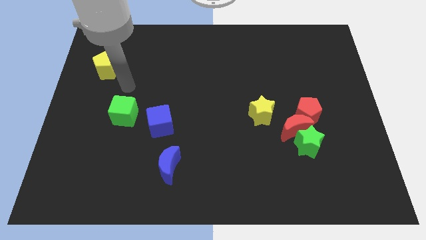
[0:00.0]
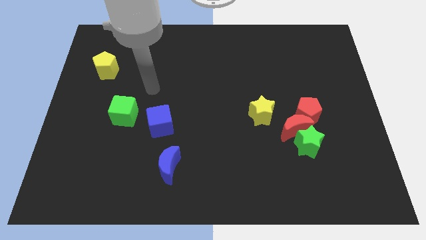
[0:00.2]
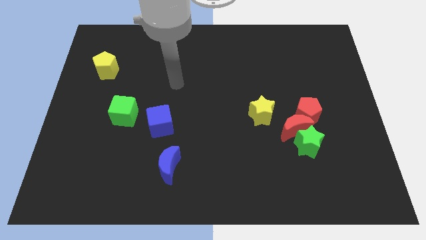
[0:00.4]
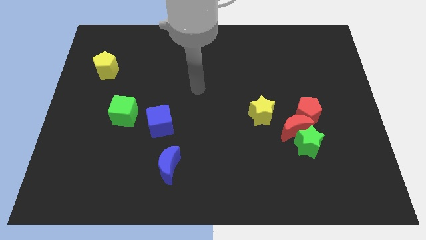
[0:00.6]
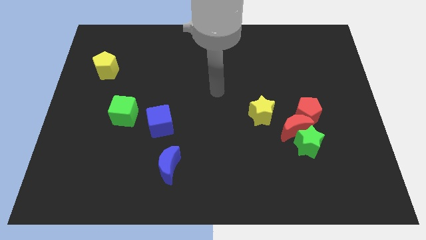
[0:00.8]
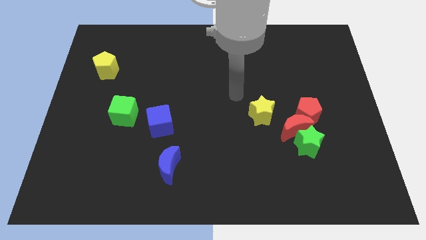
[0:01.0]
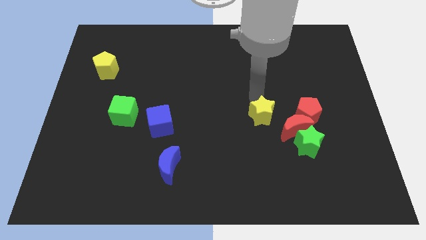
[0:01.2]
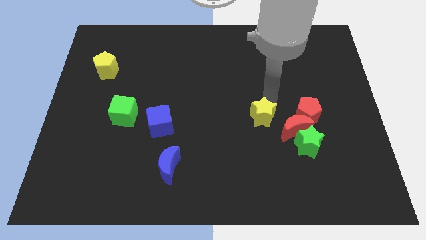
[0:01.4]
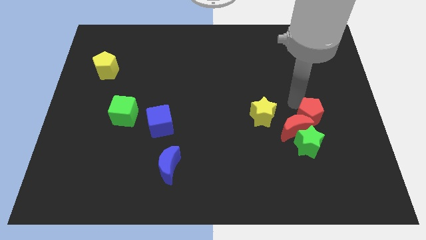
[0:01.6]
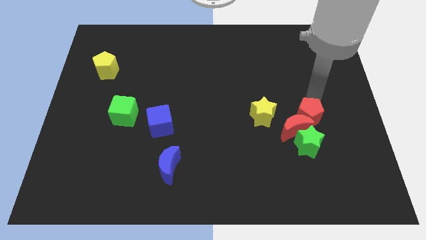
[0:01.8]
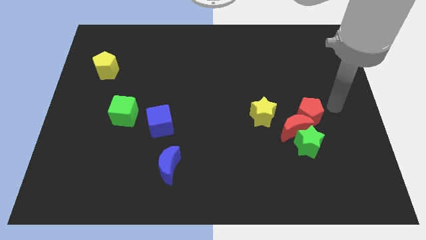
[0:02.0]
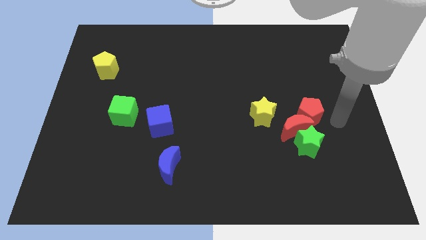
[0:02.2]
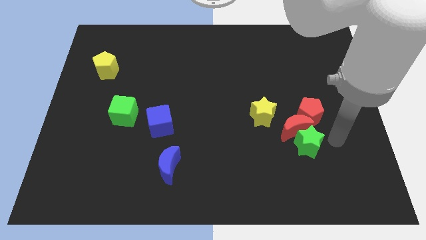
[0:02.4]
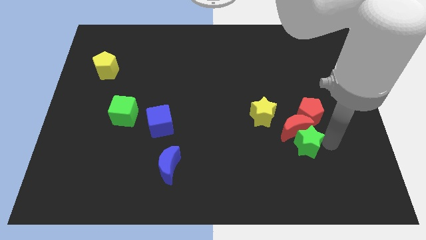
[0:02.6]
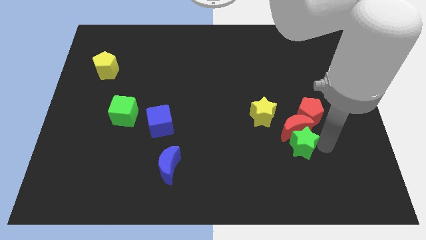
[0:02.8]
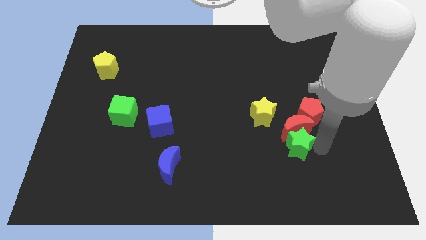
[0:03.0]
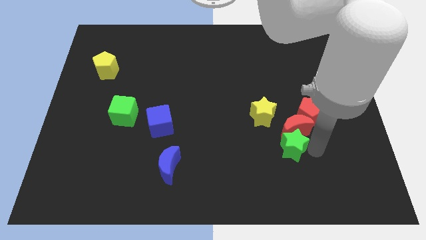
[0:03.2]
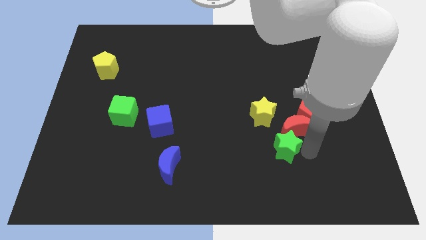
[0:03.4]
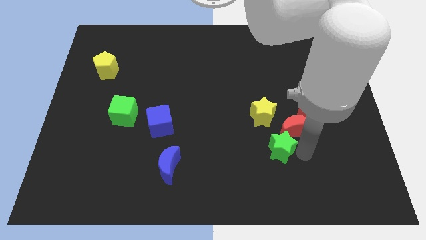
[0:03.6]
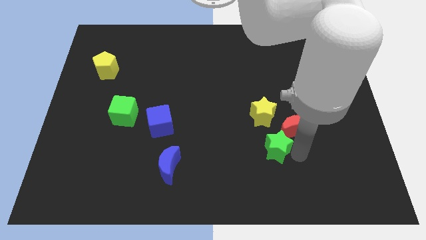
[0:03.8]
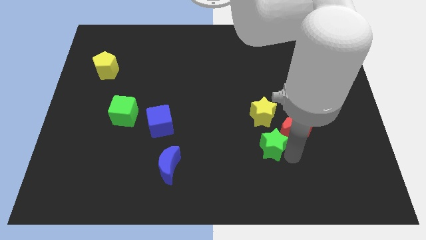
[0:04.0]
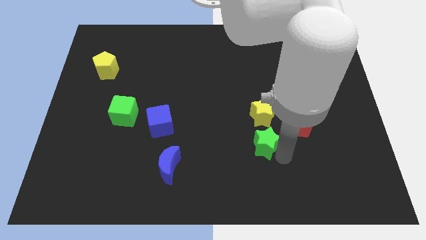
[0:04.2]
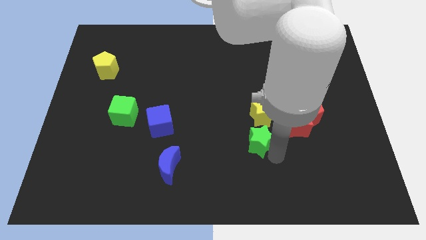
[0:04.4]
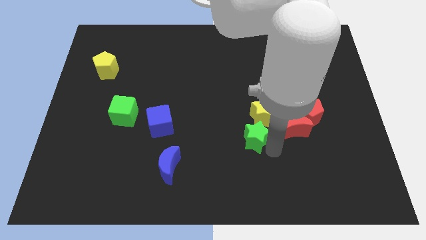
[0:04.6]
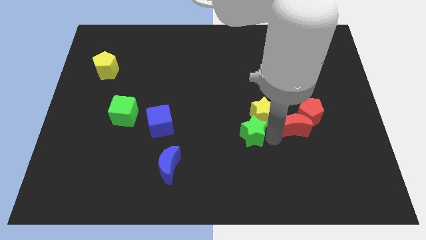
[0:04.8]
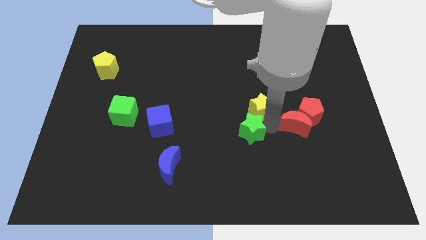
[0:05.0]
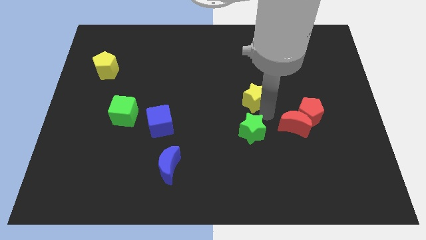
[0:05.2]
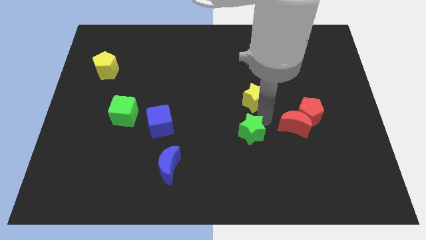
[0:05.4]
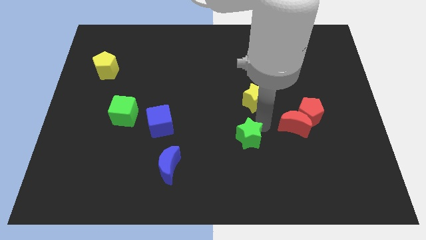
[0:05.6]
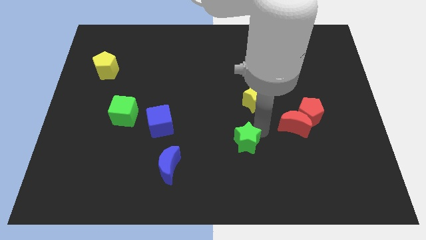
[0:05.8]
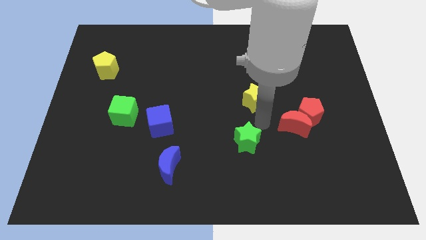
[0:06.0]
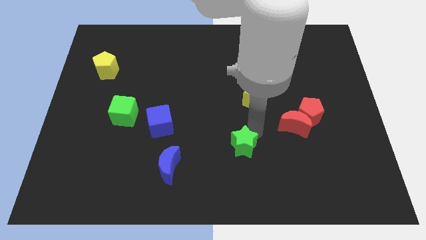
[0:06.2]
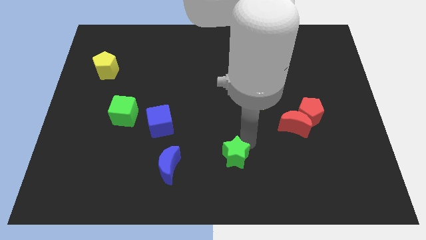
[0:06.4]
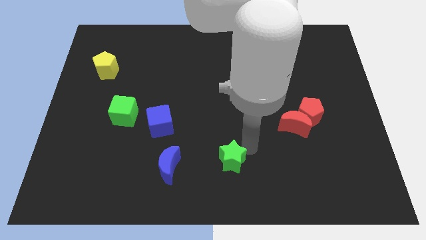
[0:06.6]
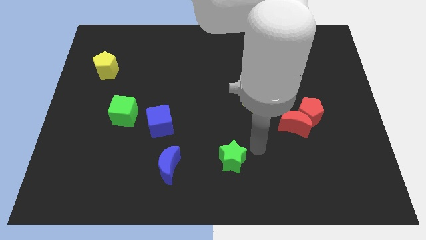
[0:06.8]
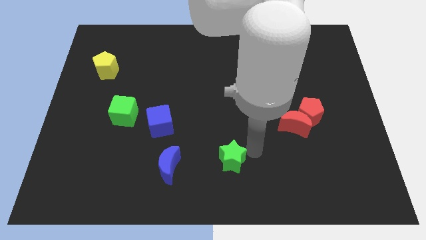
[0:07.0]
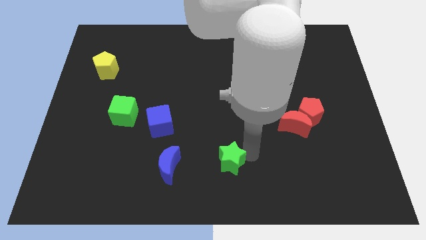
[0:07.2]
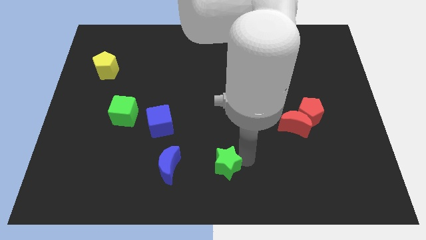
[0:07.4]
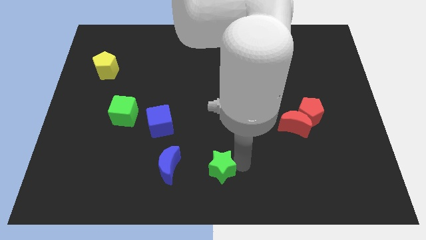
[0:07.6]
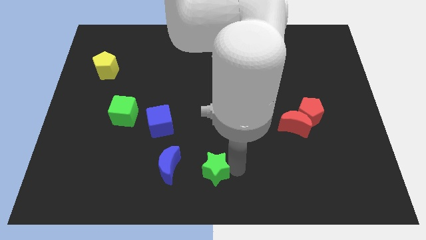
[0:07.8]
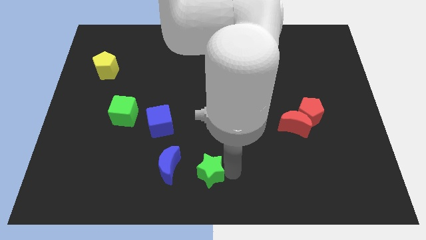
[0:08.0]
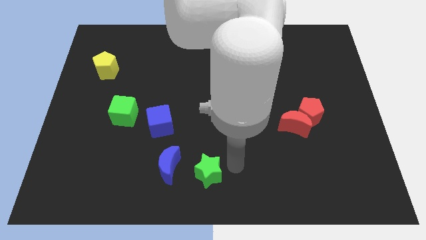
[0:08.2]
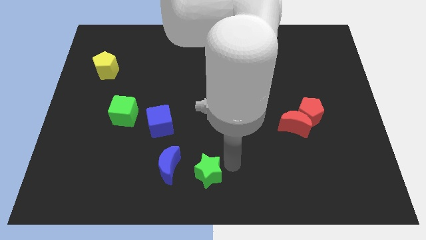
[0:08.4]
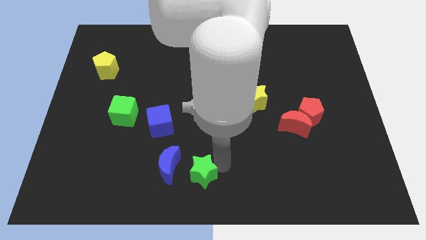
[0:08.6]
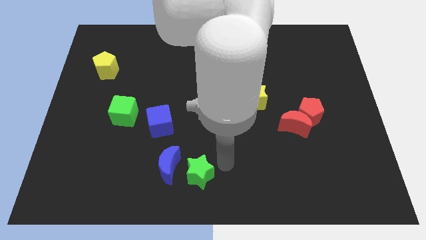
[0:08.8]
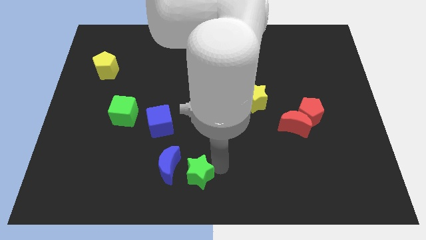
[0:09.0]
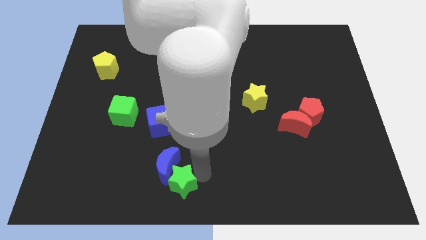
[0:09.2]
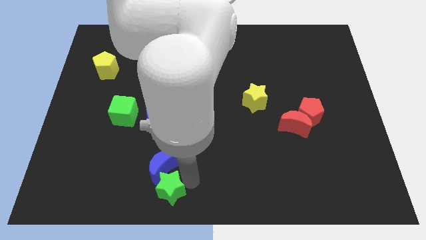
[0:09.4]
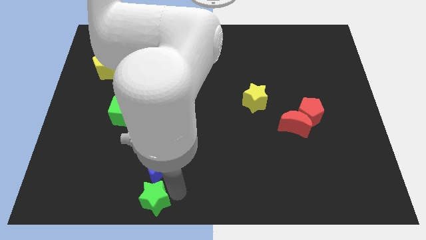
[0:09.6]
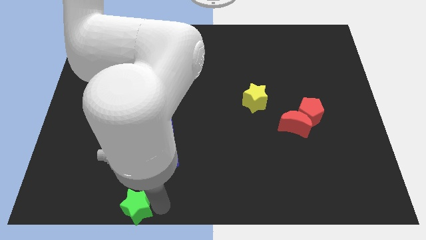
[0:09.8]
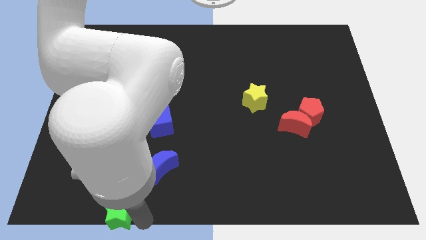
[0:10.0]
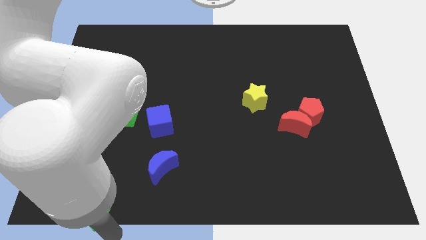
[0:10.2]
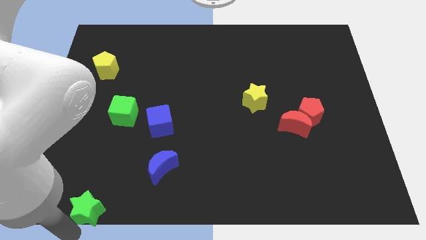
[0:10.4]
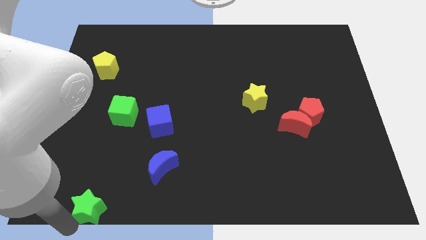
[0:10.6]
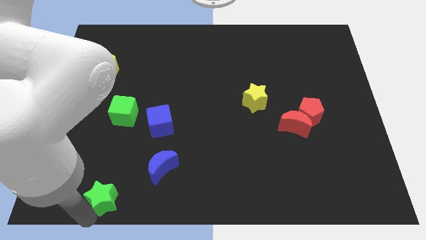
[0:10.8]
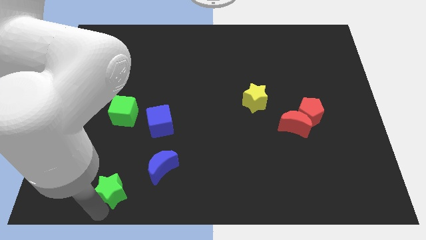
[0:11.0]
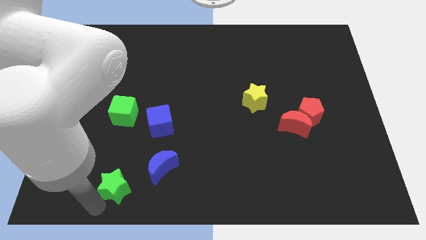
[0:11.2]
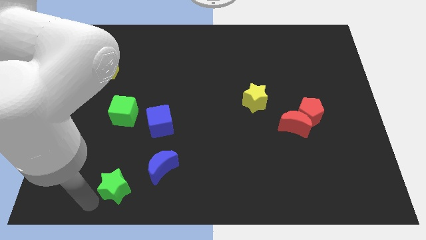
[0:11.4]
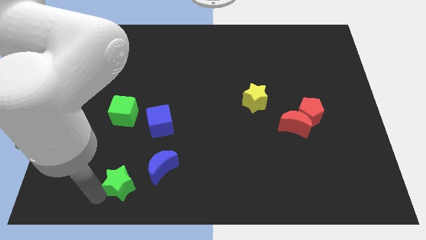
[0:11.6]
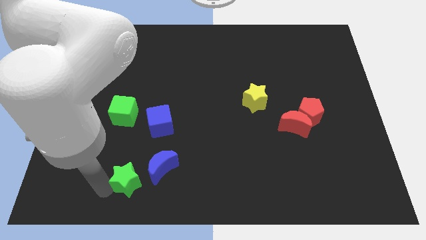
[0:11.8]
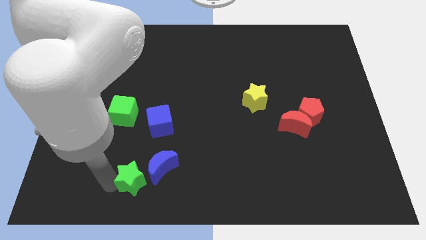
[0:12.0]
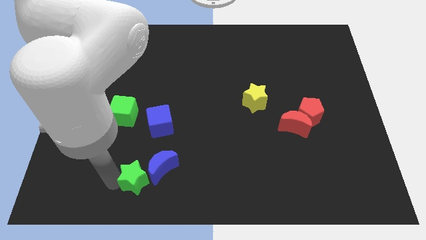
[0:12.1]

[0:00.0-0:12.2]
put the green star below the blue cube

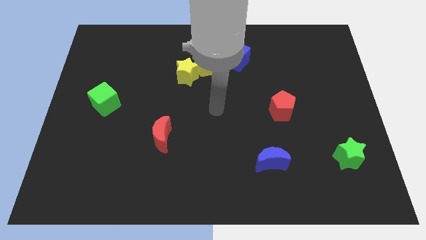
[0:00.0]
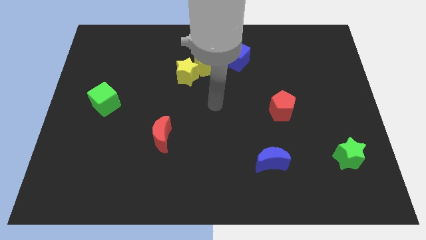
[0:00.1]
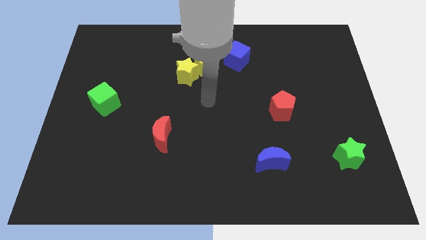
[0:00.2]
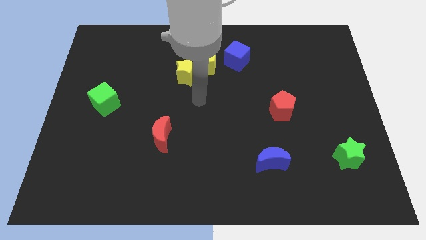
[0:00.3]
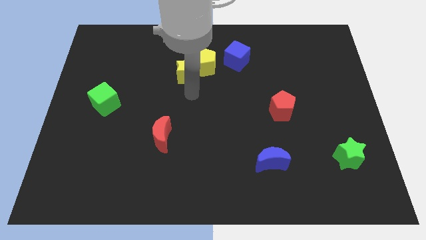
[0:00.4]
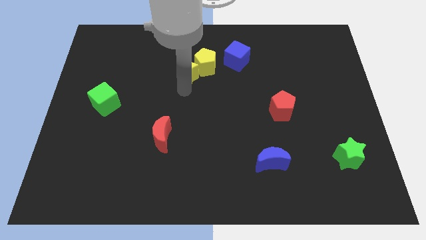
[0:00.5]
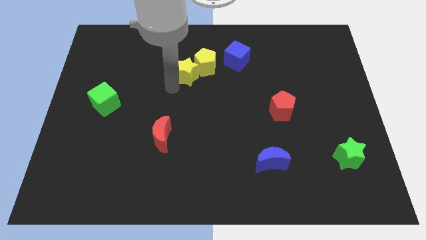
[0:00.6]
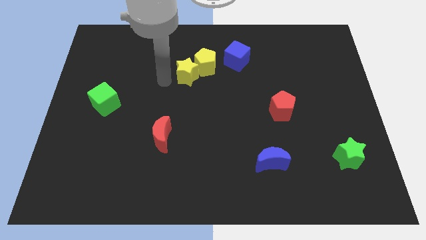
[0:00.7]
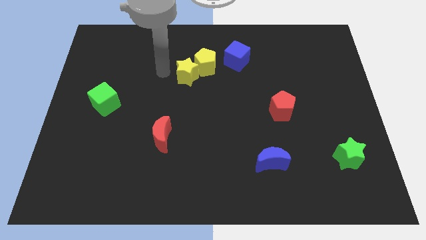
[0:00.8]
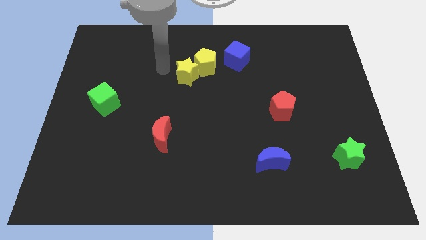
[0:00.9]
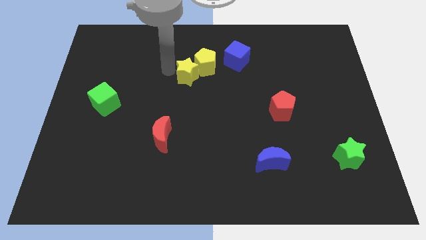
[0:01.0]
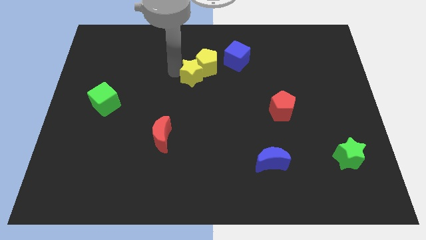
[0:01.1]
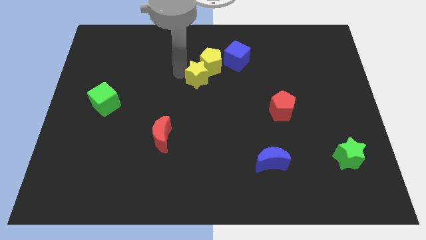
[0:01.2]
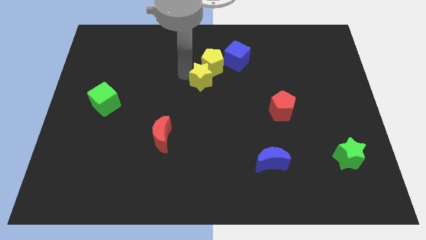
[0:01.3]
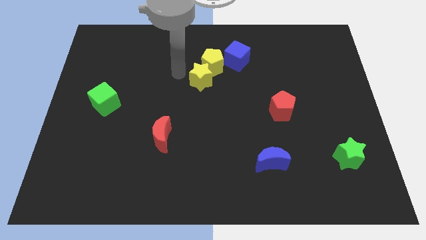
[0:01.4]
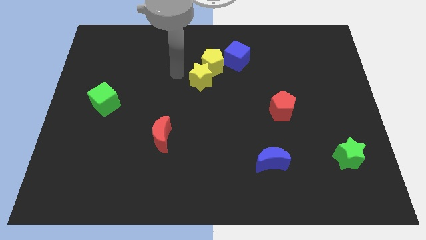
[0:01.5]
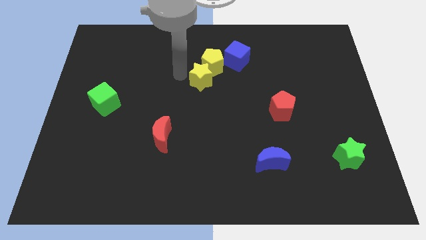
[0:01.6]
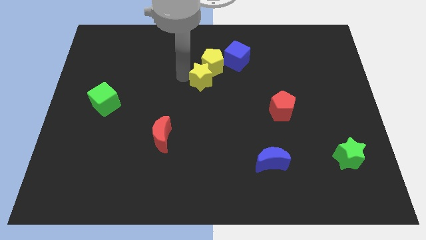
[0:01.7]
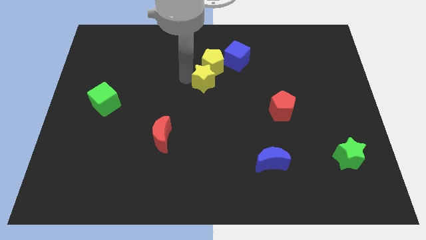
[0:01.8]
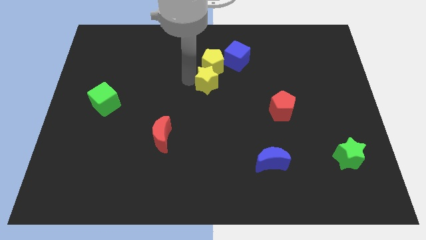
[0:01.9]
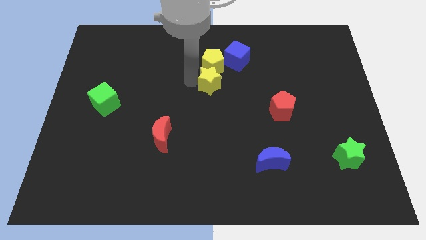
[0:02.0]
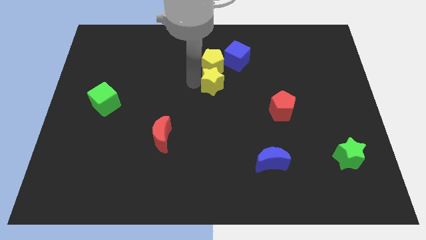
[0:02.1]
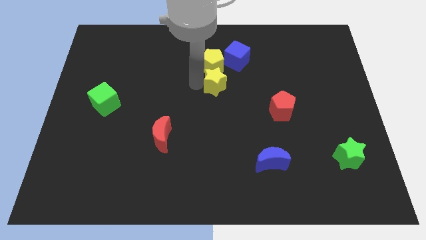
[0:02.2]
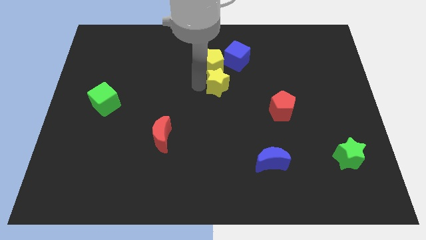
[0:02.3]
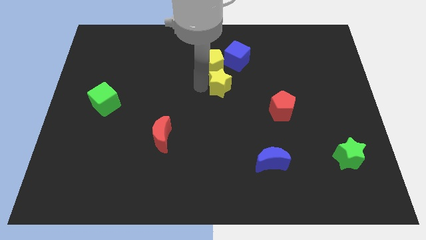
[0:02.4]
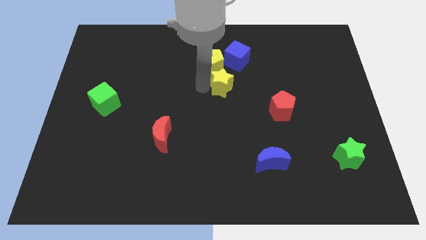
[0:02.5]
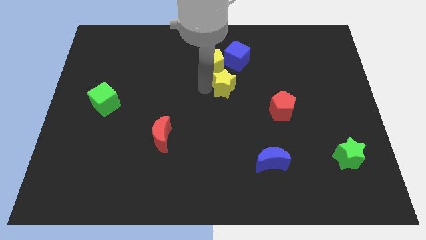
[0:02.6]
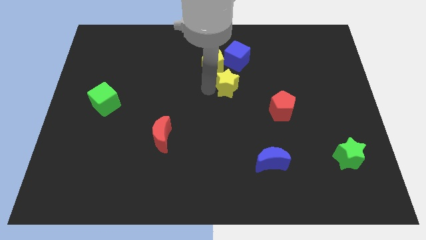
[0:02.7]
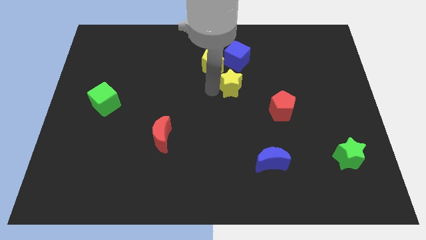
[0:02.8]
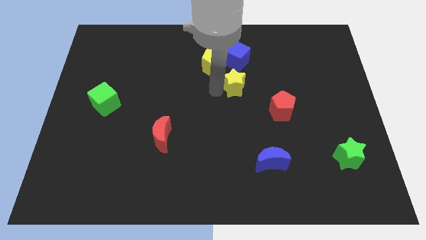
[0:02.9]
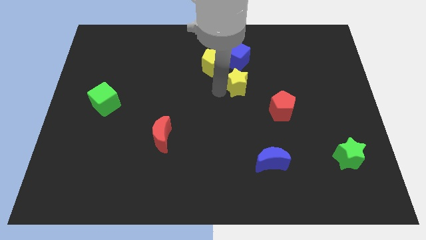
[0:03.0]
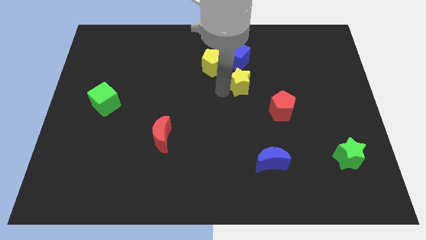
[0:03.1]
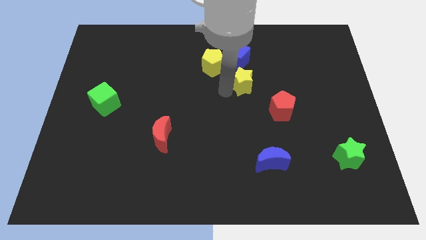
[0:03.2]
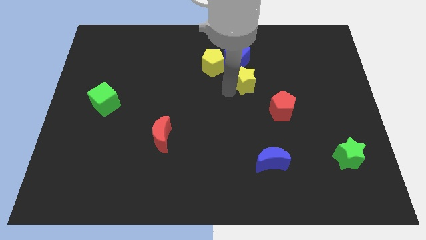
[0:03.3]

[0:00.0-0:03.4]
slide the yellow star diagonally down and to the right of the blue cube
